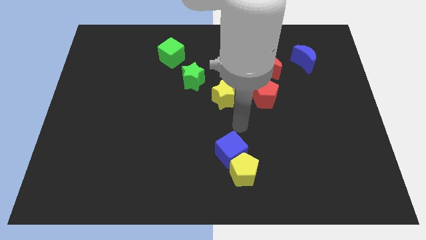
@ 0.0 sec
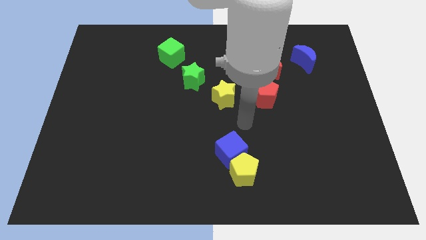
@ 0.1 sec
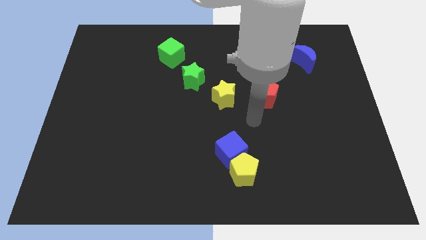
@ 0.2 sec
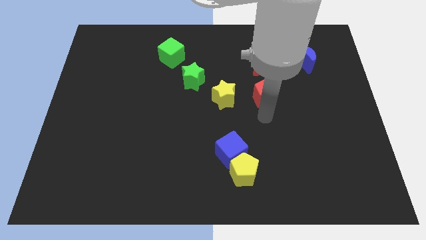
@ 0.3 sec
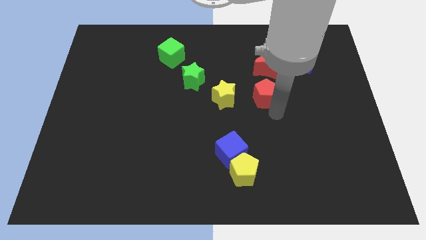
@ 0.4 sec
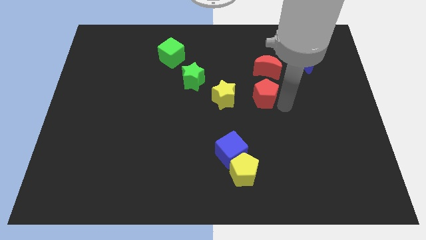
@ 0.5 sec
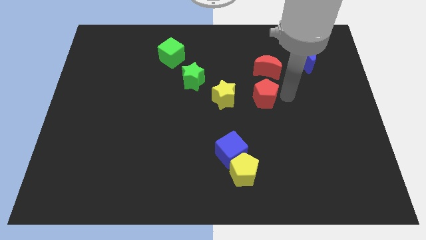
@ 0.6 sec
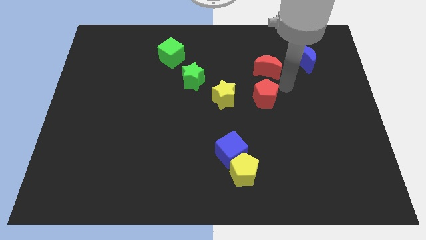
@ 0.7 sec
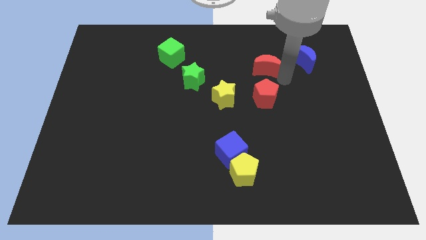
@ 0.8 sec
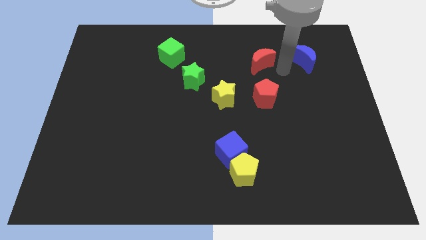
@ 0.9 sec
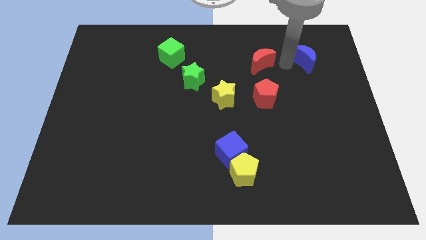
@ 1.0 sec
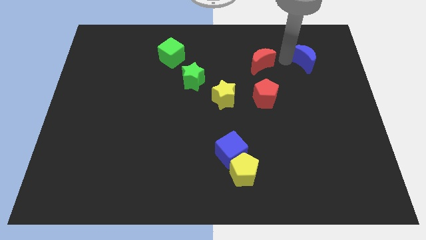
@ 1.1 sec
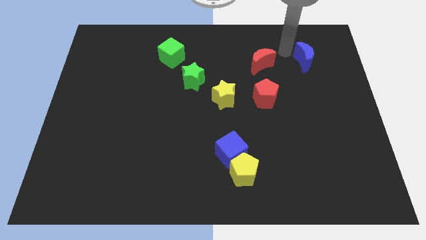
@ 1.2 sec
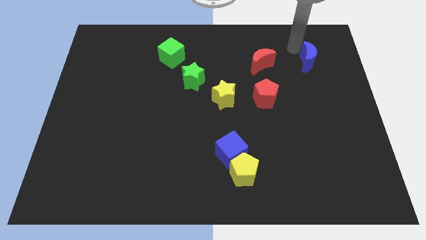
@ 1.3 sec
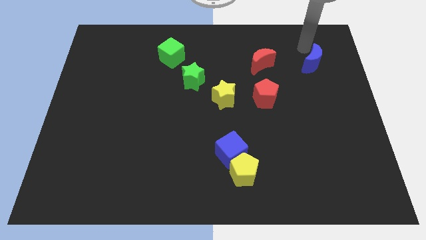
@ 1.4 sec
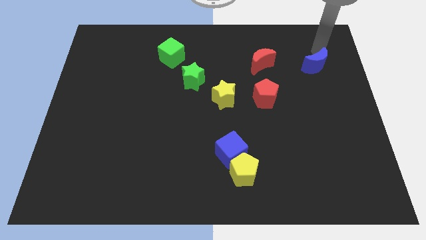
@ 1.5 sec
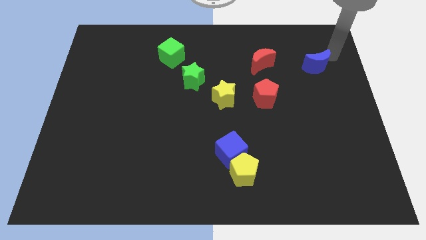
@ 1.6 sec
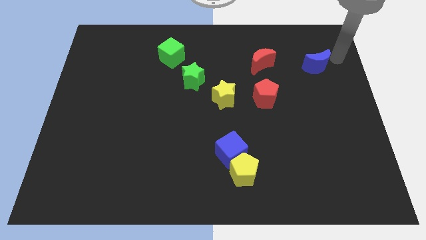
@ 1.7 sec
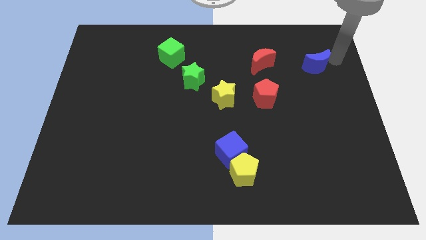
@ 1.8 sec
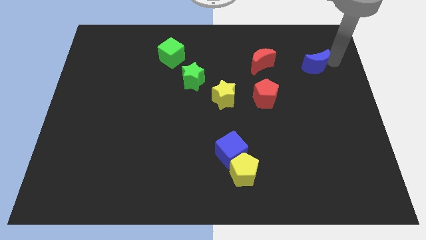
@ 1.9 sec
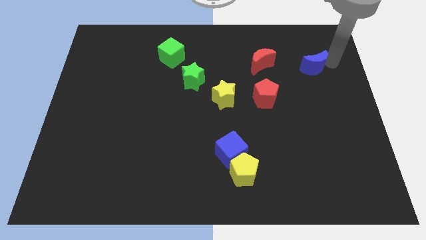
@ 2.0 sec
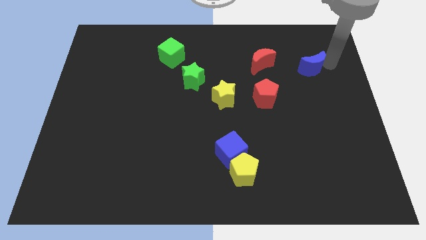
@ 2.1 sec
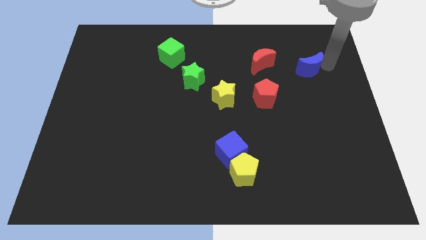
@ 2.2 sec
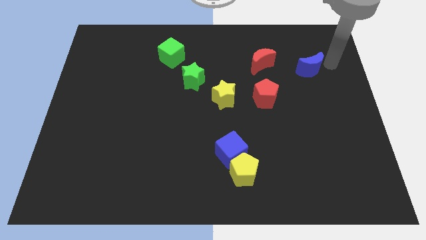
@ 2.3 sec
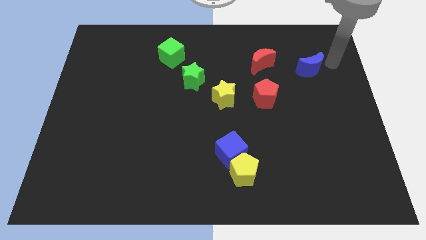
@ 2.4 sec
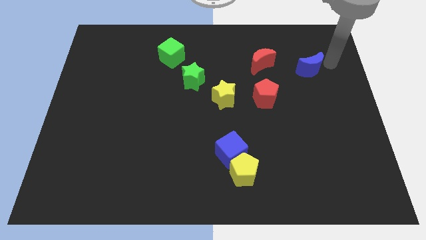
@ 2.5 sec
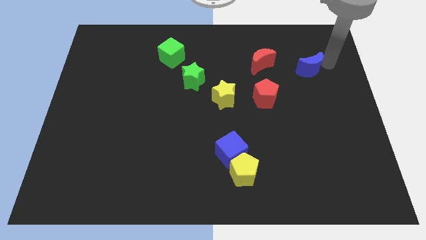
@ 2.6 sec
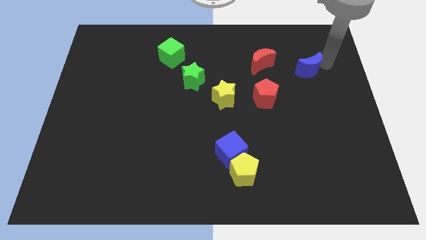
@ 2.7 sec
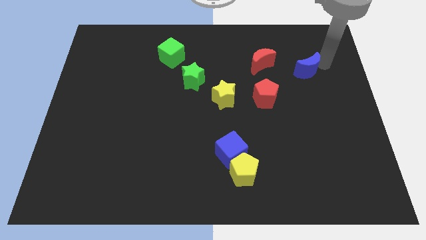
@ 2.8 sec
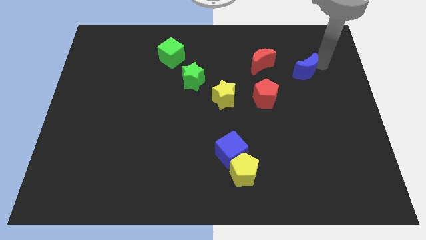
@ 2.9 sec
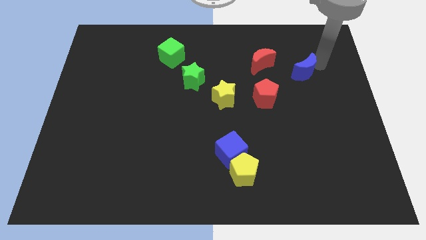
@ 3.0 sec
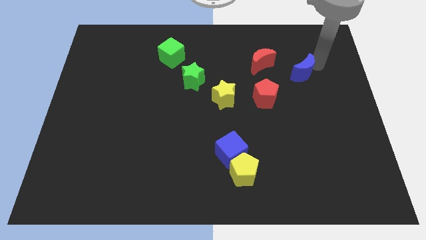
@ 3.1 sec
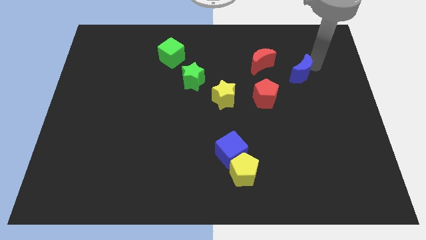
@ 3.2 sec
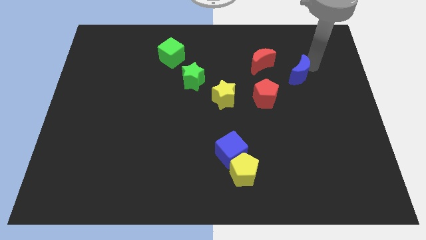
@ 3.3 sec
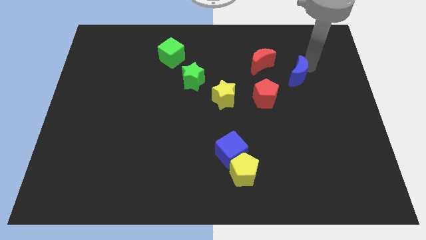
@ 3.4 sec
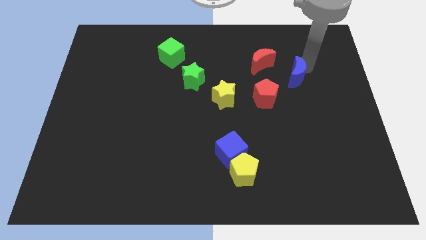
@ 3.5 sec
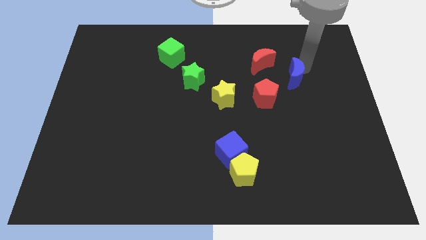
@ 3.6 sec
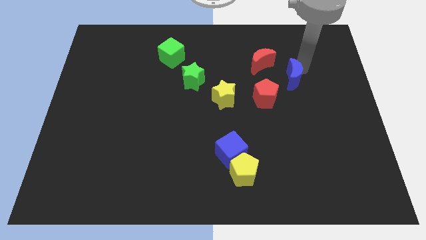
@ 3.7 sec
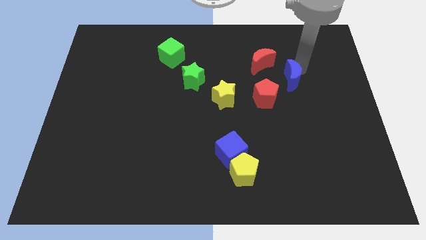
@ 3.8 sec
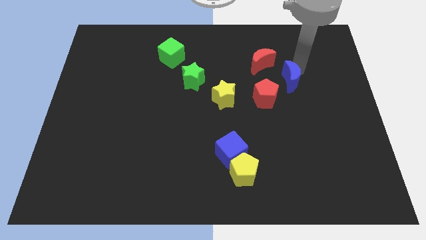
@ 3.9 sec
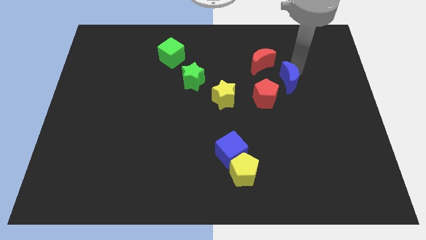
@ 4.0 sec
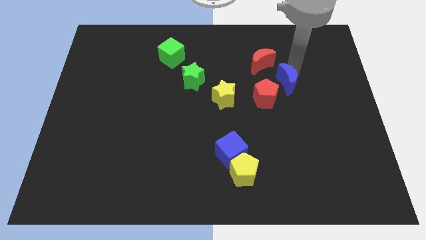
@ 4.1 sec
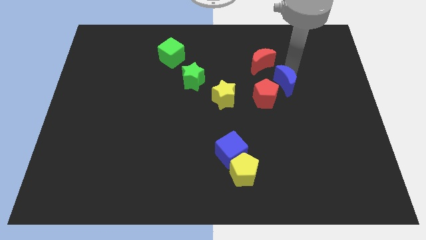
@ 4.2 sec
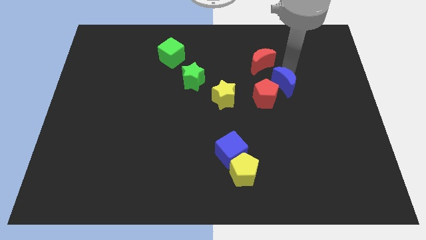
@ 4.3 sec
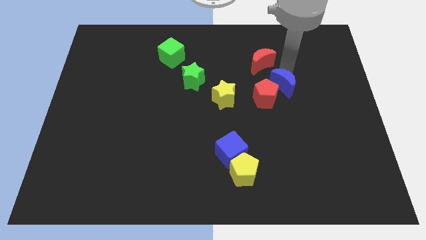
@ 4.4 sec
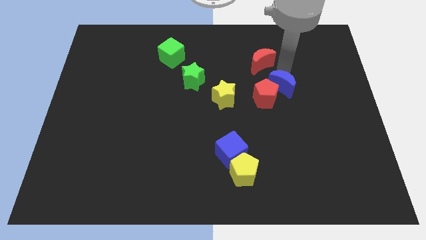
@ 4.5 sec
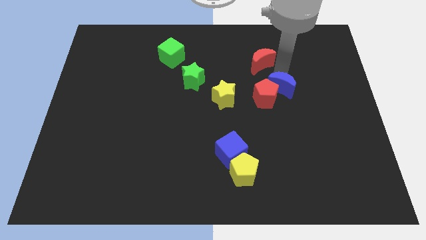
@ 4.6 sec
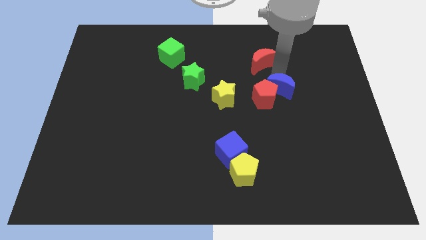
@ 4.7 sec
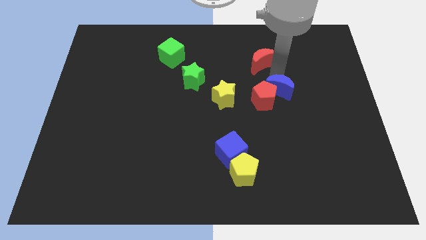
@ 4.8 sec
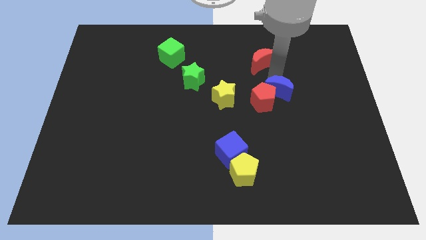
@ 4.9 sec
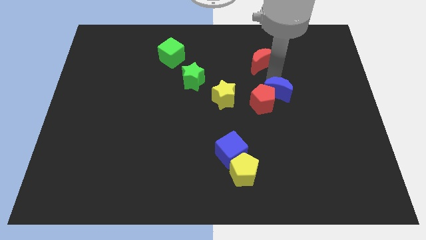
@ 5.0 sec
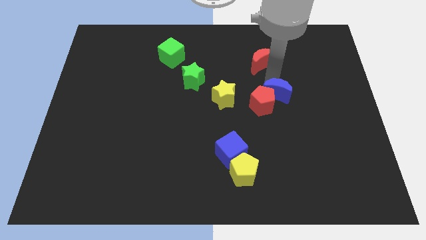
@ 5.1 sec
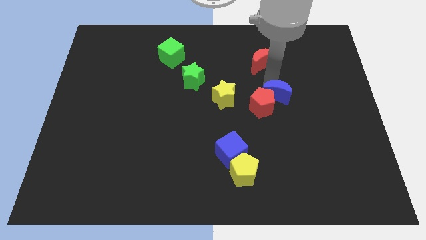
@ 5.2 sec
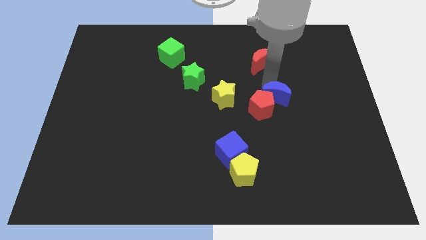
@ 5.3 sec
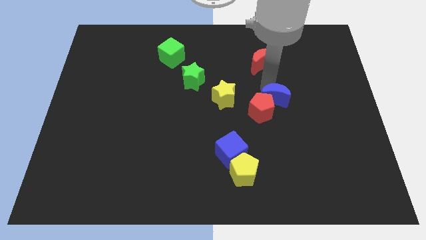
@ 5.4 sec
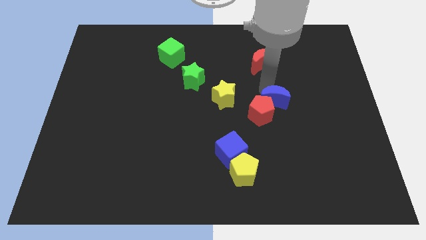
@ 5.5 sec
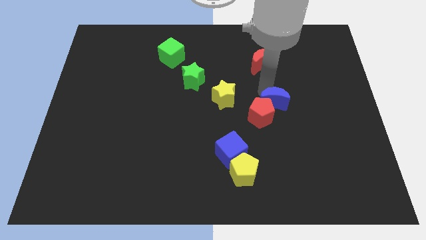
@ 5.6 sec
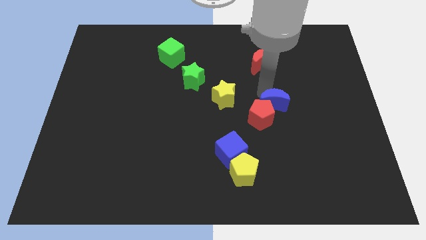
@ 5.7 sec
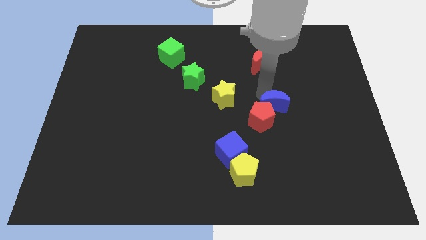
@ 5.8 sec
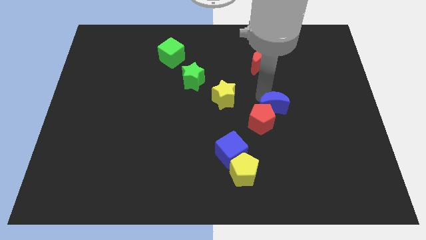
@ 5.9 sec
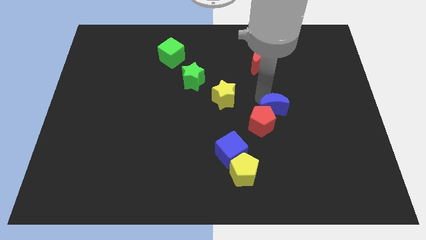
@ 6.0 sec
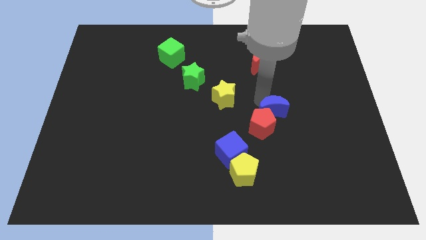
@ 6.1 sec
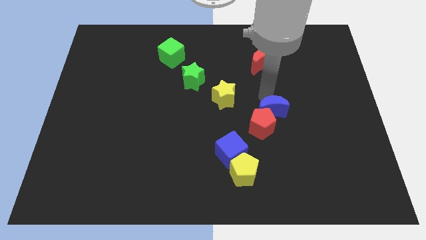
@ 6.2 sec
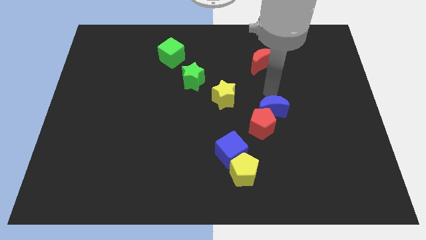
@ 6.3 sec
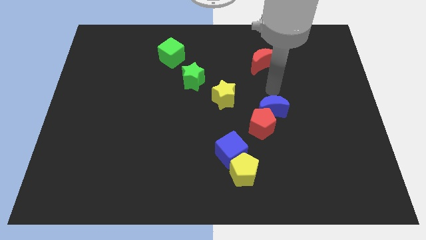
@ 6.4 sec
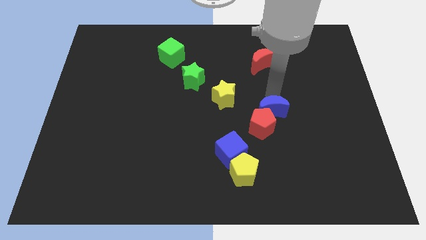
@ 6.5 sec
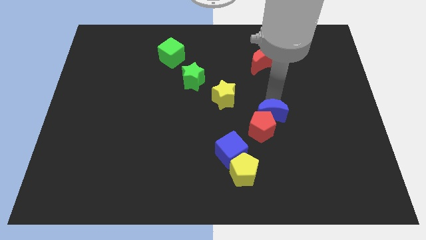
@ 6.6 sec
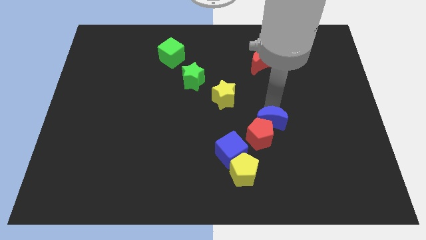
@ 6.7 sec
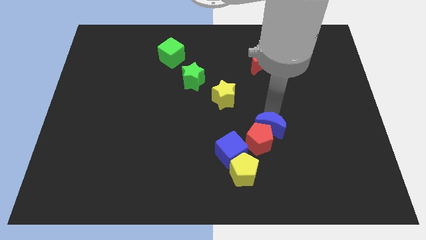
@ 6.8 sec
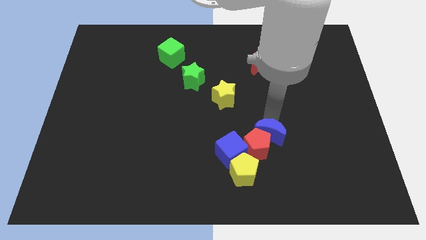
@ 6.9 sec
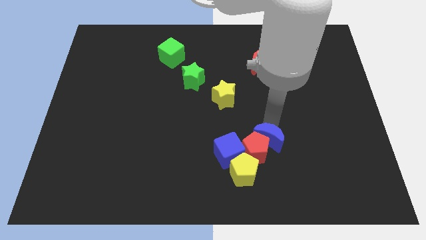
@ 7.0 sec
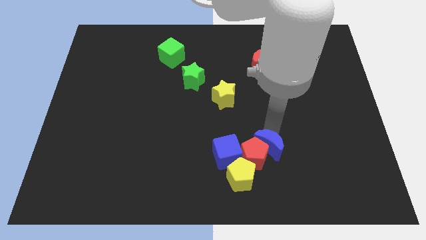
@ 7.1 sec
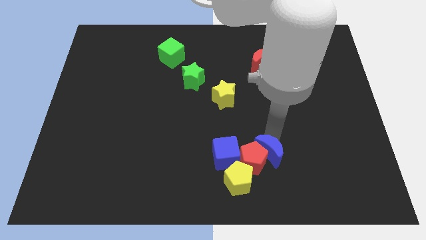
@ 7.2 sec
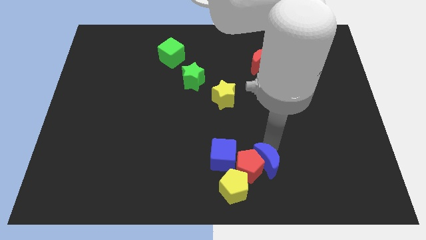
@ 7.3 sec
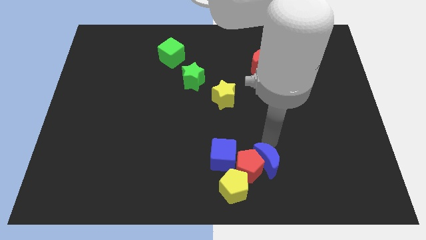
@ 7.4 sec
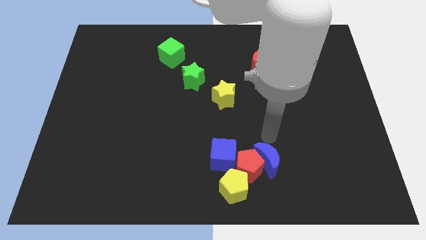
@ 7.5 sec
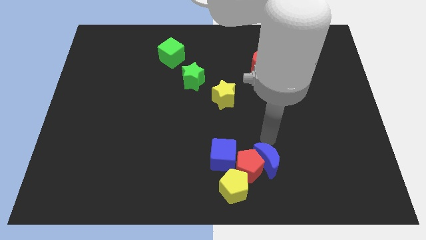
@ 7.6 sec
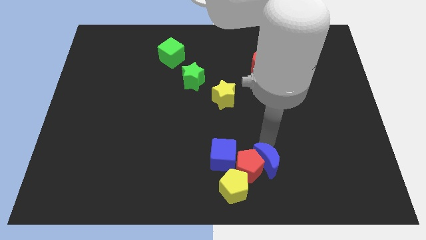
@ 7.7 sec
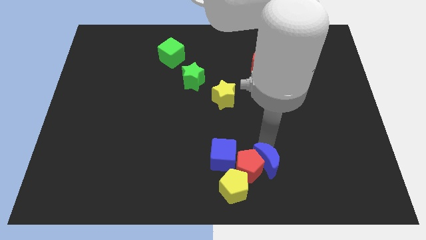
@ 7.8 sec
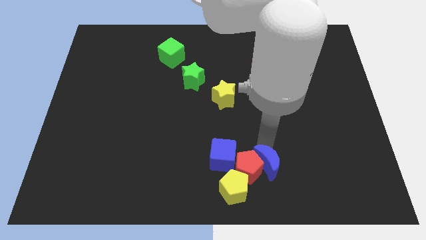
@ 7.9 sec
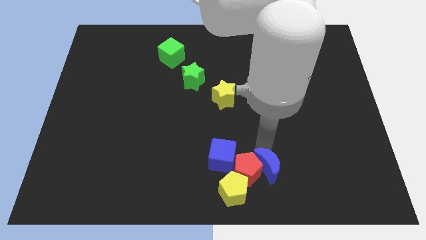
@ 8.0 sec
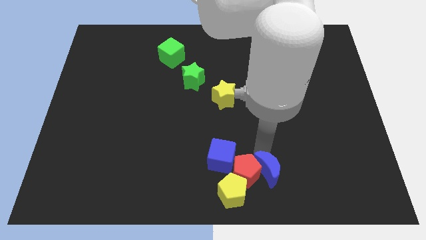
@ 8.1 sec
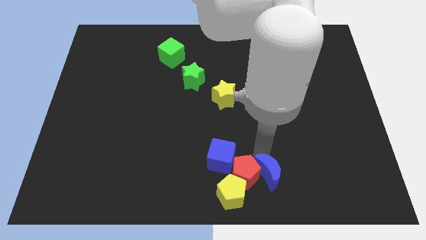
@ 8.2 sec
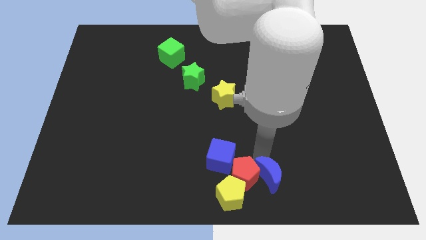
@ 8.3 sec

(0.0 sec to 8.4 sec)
slide the blue moon to the bottom side
